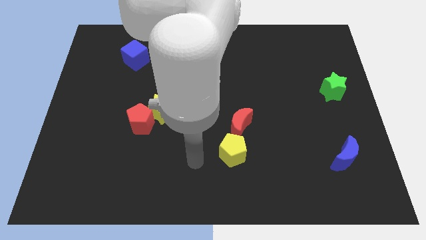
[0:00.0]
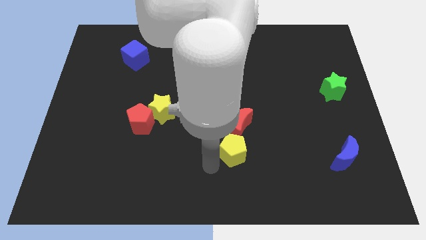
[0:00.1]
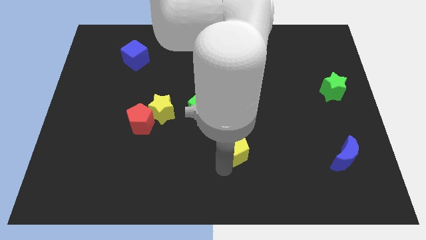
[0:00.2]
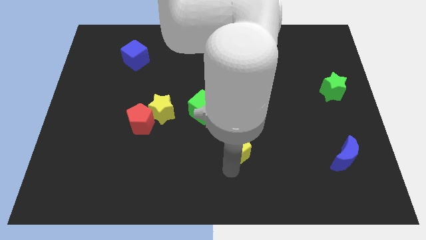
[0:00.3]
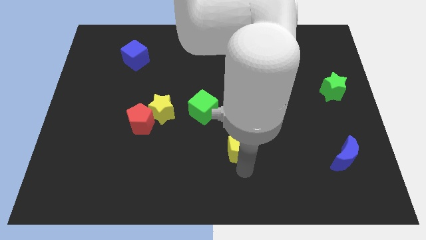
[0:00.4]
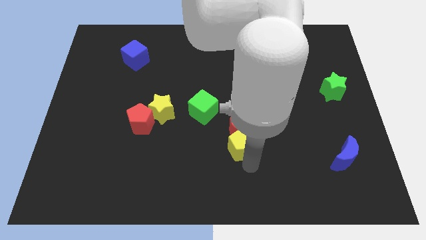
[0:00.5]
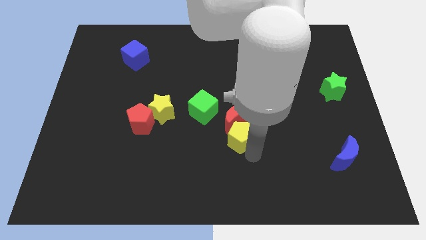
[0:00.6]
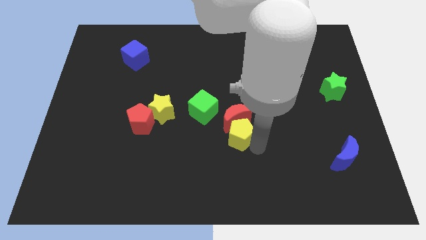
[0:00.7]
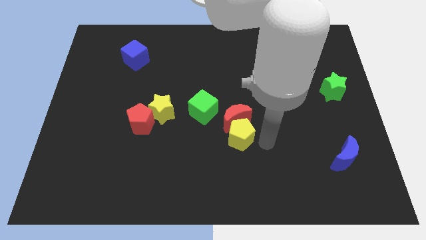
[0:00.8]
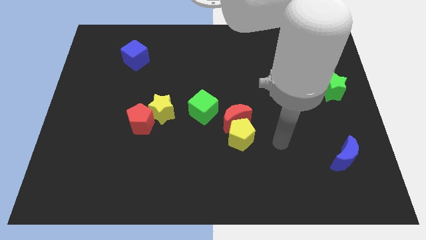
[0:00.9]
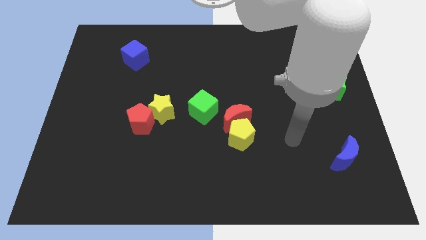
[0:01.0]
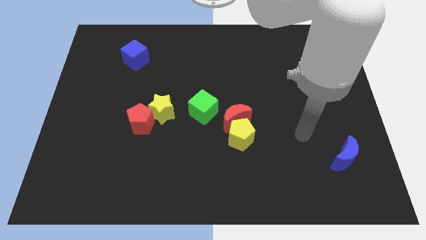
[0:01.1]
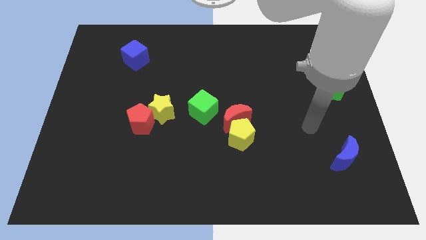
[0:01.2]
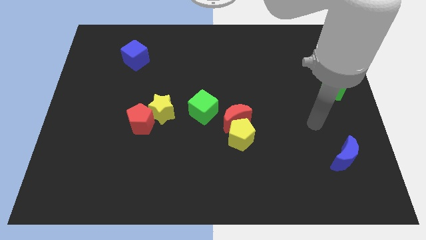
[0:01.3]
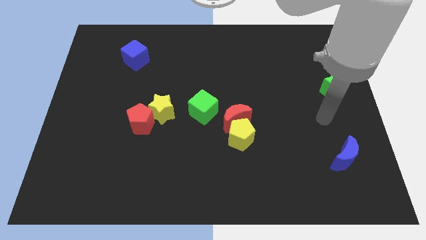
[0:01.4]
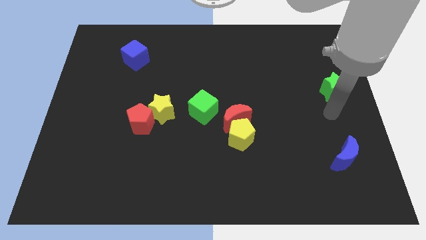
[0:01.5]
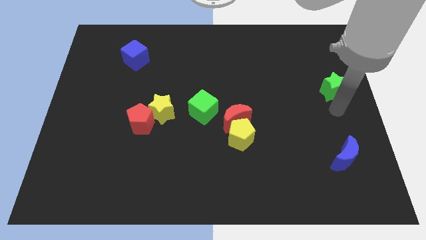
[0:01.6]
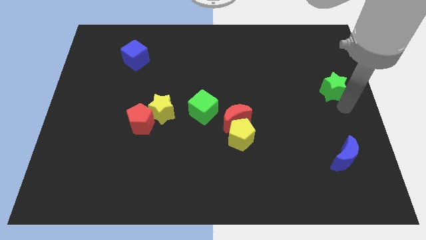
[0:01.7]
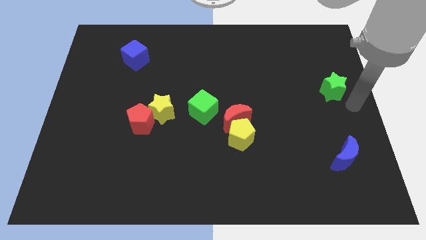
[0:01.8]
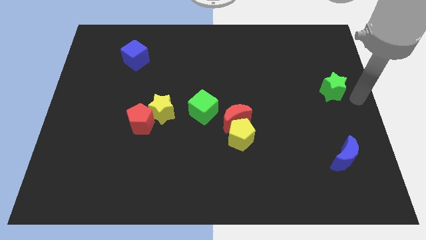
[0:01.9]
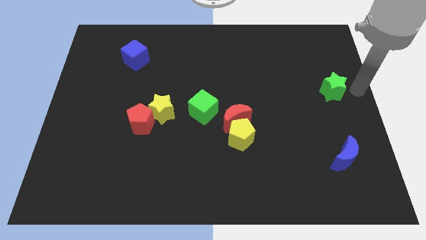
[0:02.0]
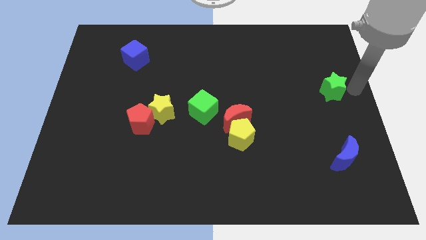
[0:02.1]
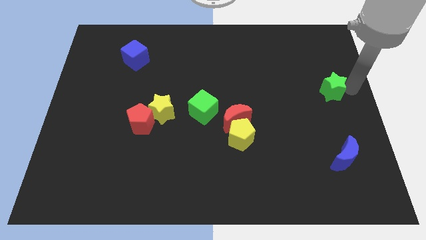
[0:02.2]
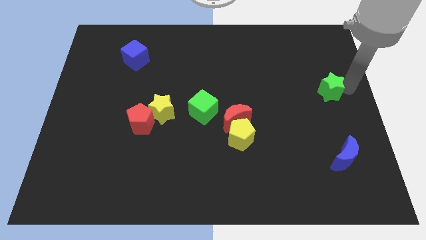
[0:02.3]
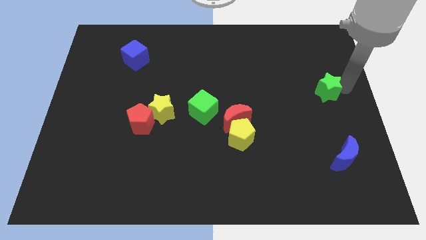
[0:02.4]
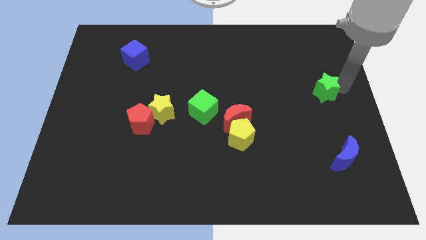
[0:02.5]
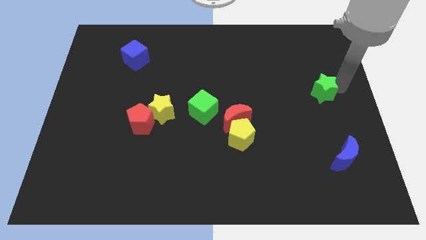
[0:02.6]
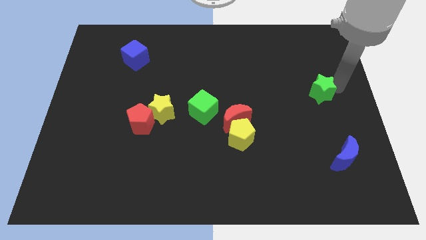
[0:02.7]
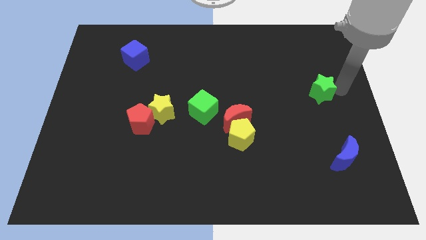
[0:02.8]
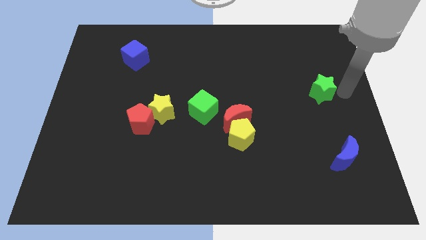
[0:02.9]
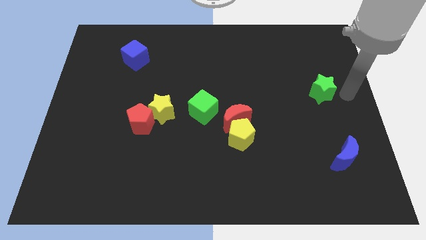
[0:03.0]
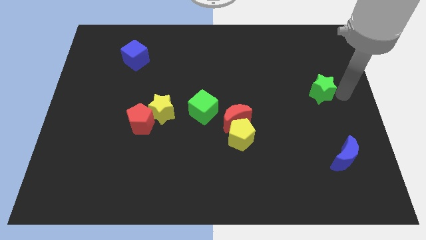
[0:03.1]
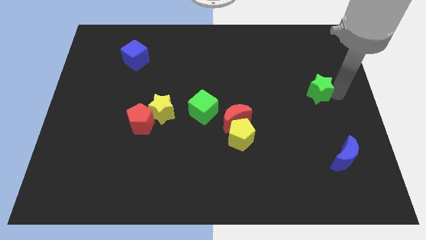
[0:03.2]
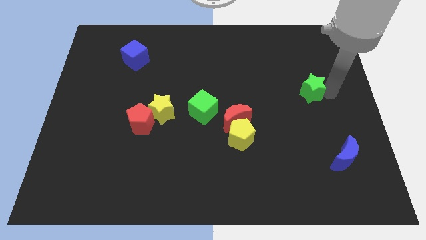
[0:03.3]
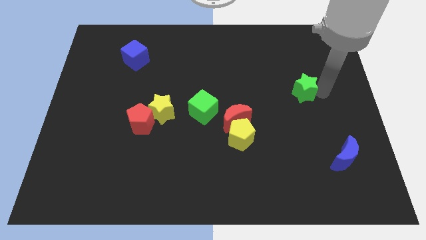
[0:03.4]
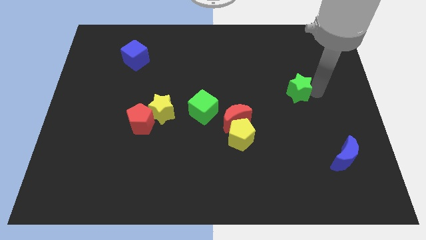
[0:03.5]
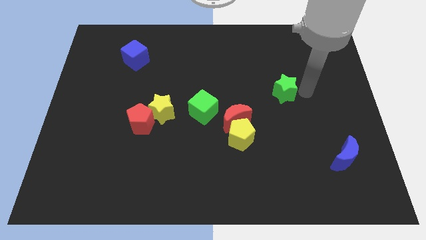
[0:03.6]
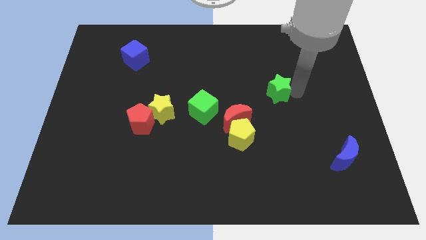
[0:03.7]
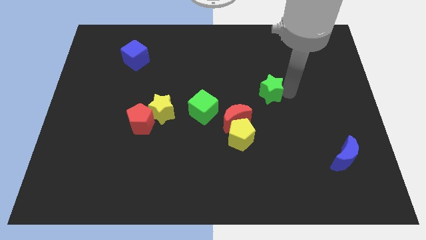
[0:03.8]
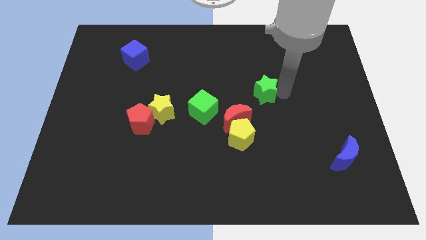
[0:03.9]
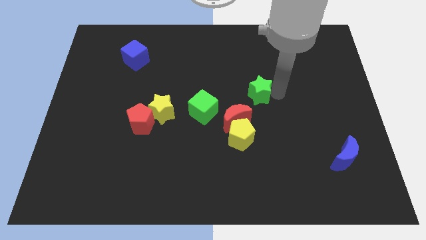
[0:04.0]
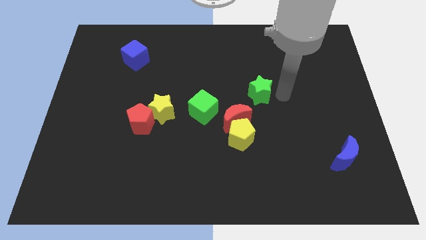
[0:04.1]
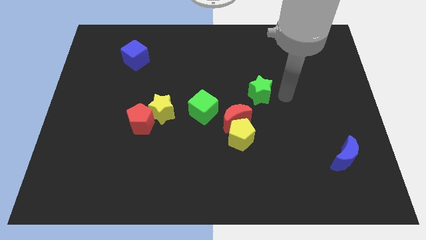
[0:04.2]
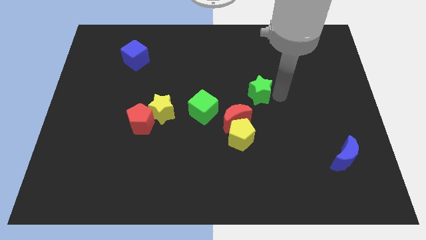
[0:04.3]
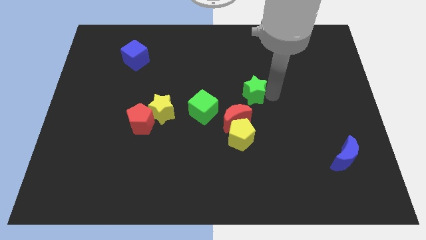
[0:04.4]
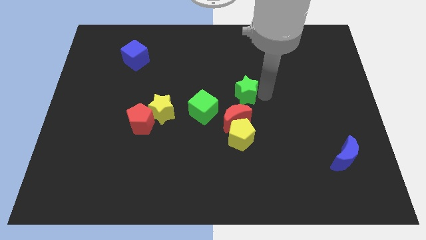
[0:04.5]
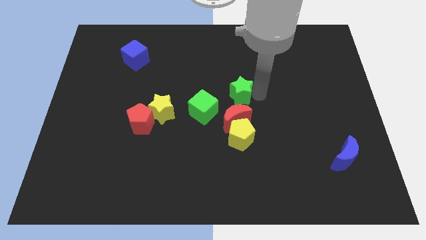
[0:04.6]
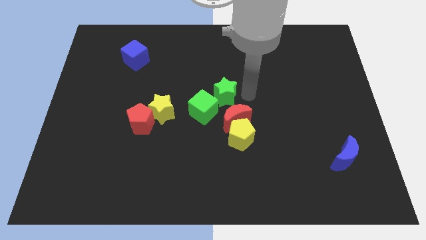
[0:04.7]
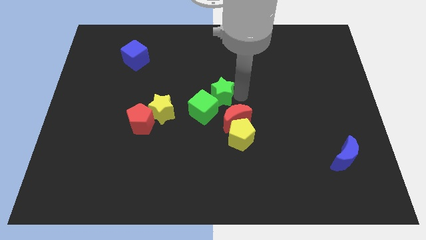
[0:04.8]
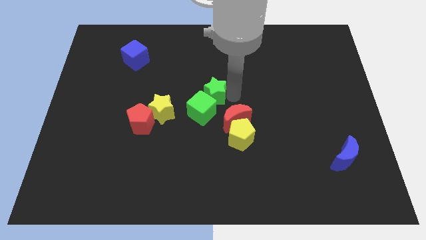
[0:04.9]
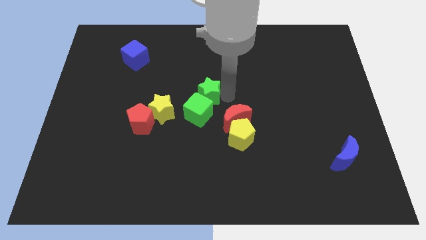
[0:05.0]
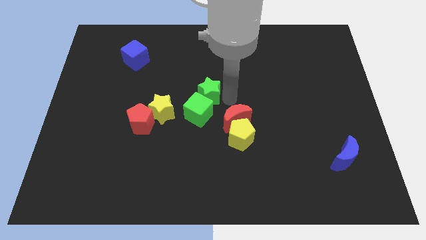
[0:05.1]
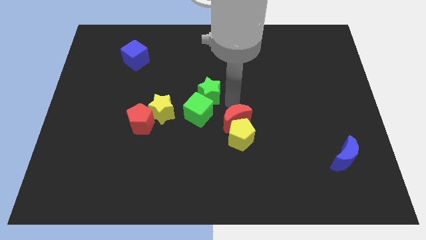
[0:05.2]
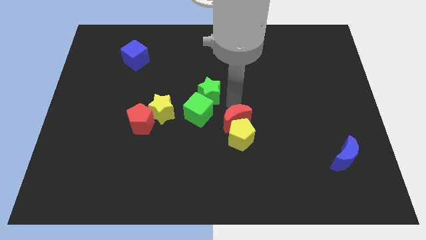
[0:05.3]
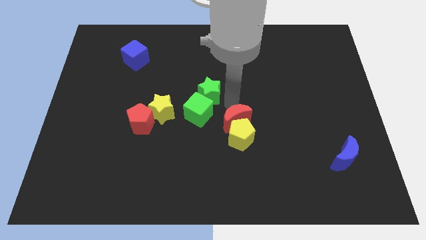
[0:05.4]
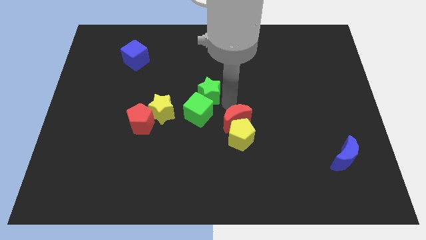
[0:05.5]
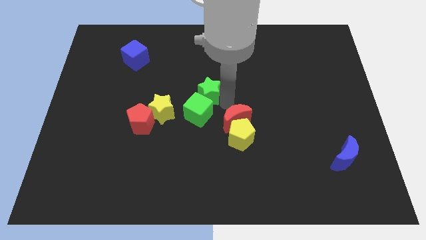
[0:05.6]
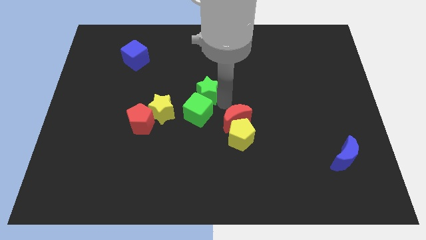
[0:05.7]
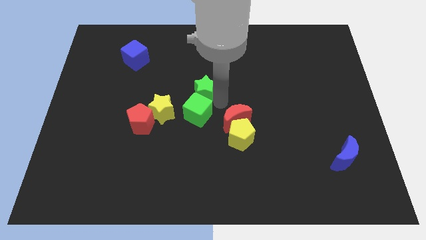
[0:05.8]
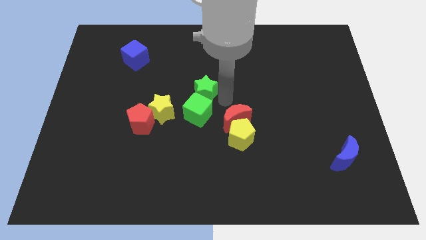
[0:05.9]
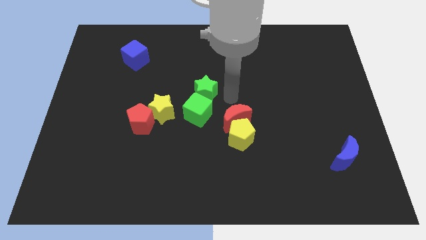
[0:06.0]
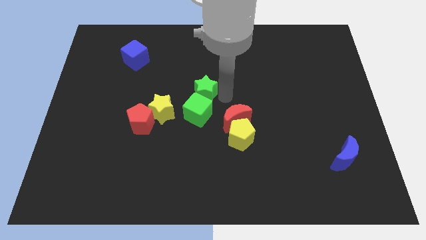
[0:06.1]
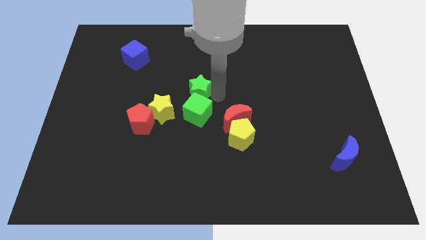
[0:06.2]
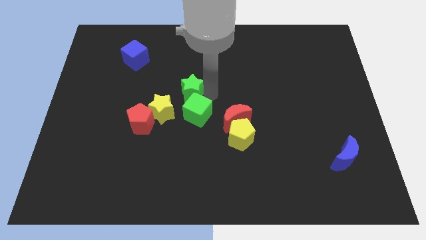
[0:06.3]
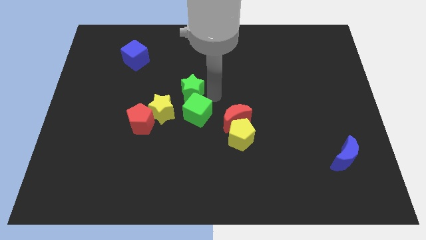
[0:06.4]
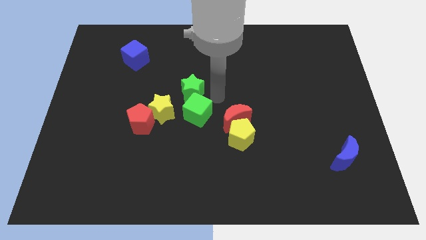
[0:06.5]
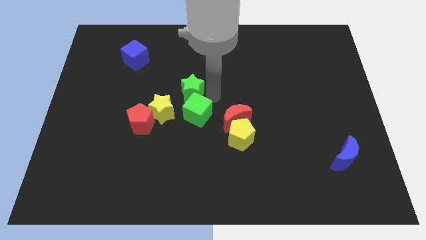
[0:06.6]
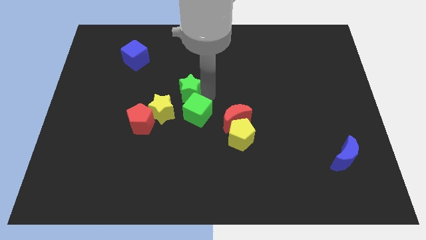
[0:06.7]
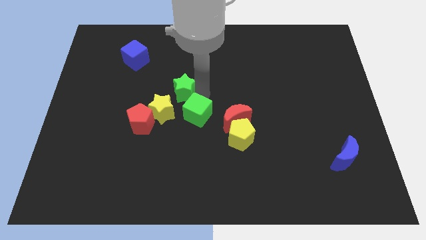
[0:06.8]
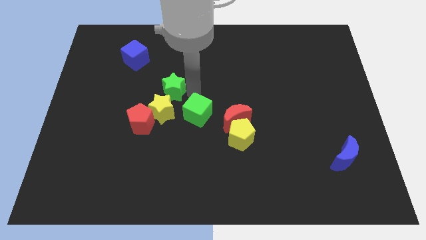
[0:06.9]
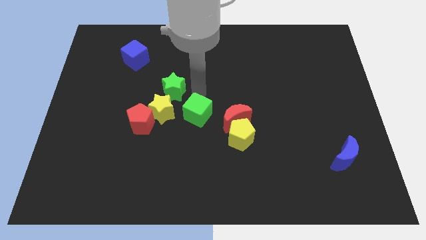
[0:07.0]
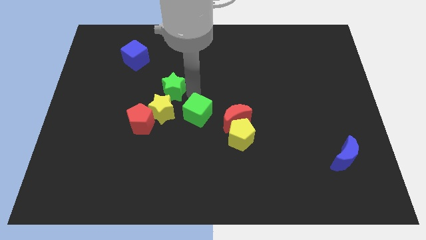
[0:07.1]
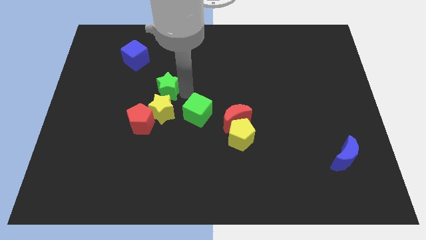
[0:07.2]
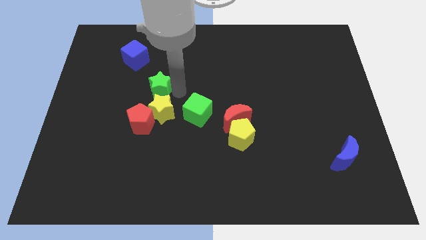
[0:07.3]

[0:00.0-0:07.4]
slide the green star above the red pentagon
